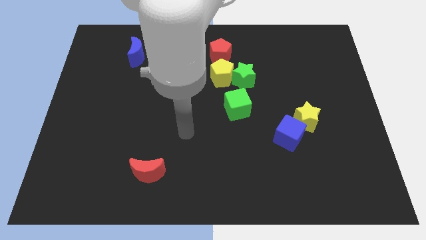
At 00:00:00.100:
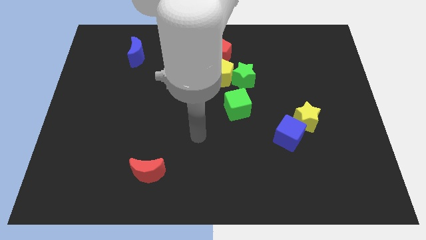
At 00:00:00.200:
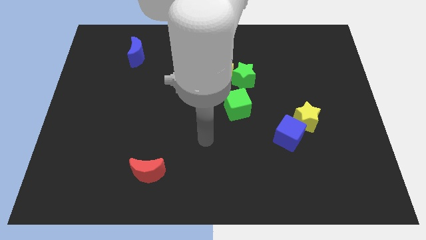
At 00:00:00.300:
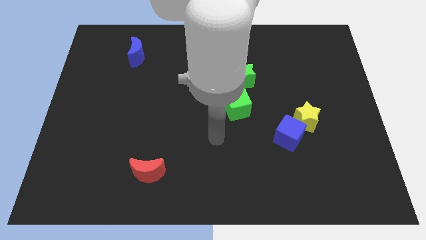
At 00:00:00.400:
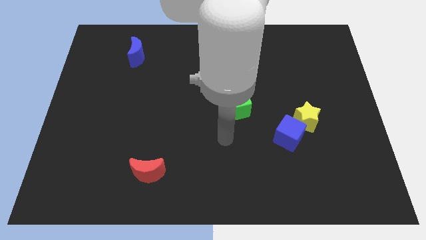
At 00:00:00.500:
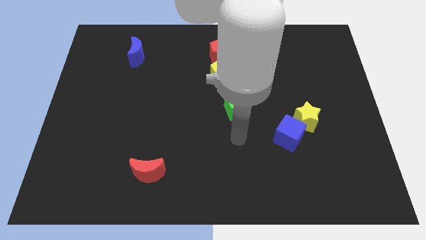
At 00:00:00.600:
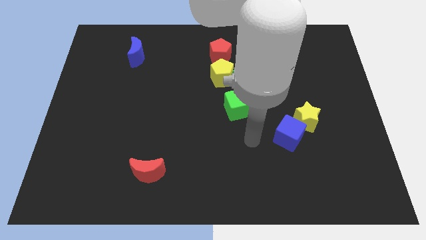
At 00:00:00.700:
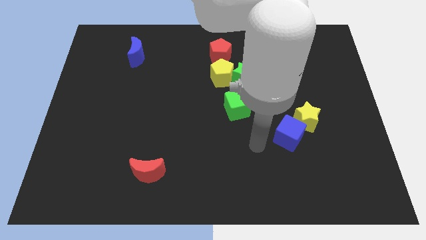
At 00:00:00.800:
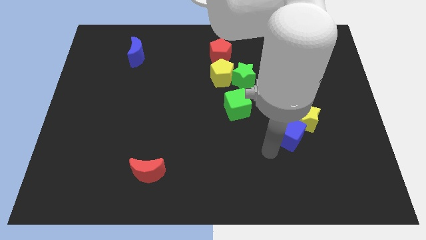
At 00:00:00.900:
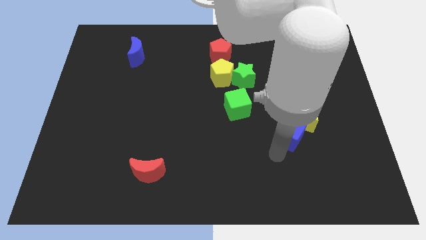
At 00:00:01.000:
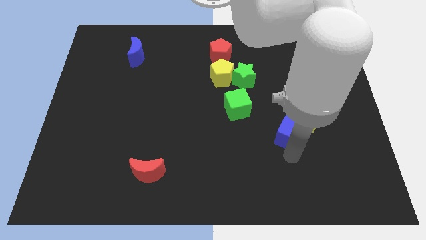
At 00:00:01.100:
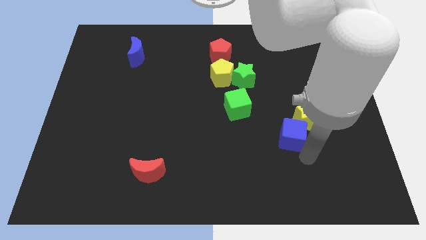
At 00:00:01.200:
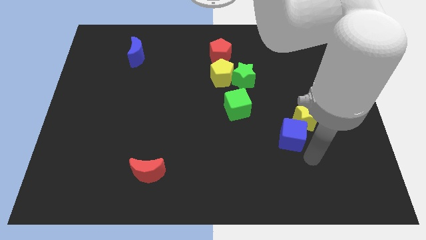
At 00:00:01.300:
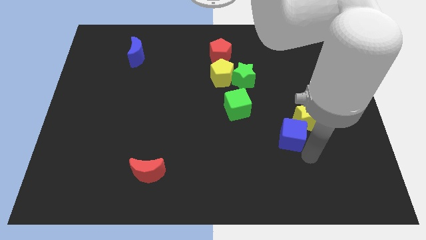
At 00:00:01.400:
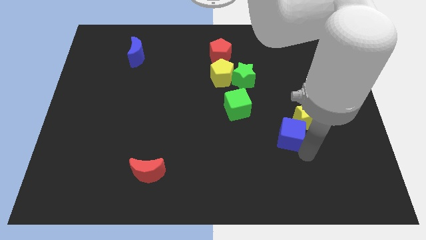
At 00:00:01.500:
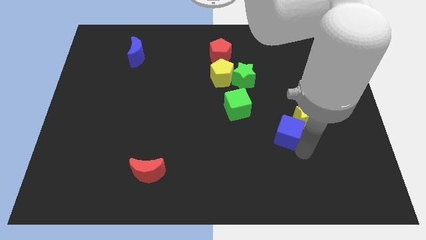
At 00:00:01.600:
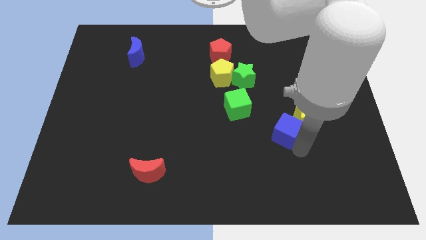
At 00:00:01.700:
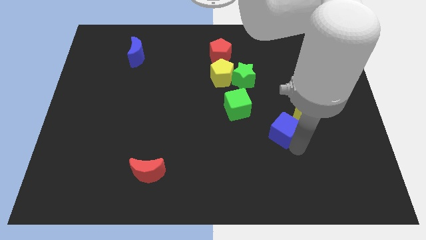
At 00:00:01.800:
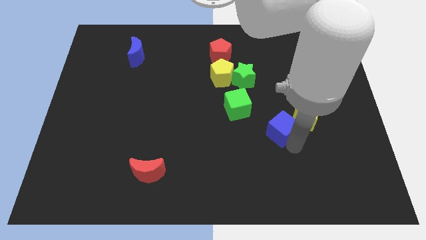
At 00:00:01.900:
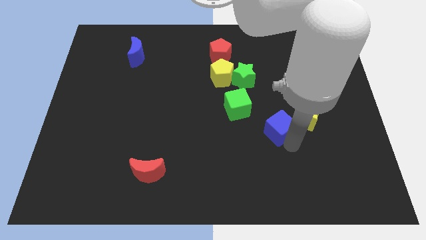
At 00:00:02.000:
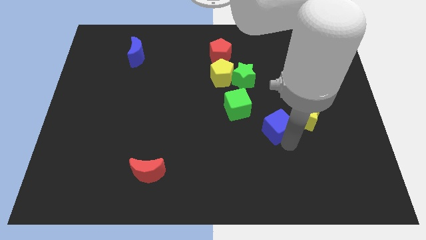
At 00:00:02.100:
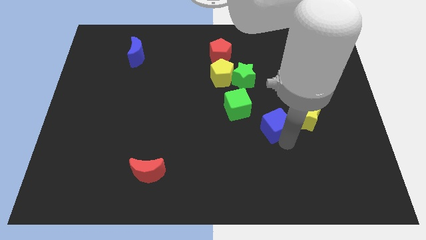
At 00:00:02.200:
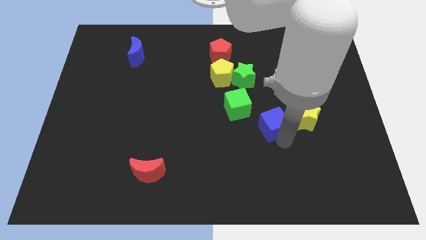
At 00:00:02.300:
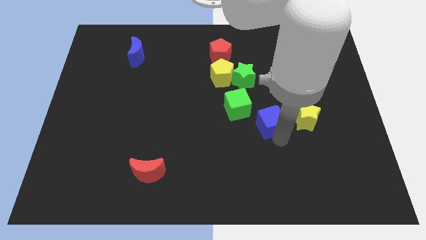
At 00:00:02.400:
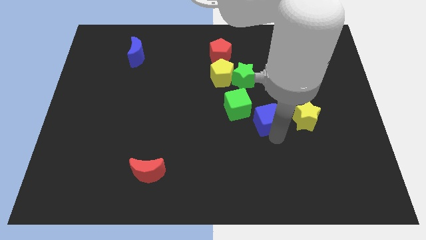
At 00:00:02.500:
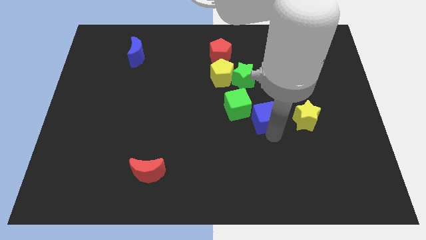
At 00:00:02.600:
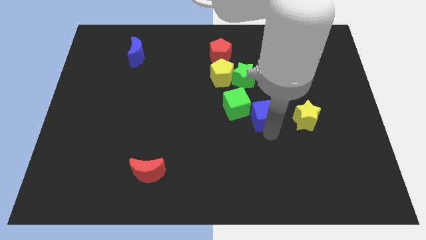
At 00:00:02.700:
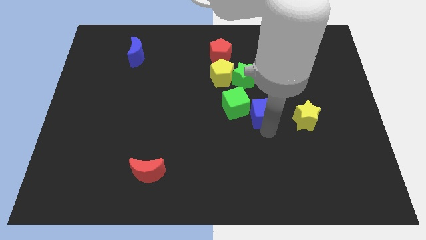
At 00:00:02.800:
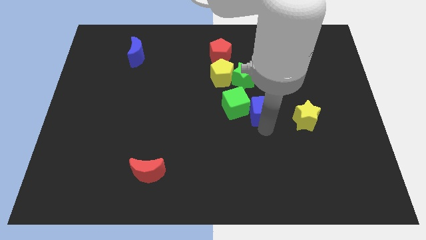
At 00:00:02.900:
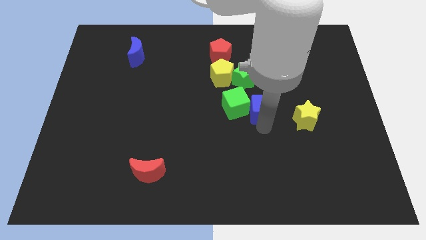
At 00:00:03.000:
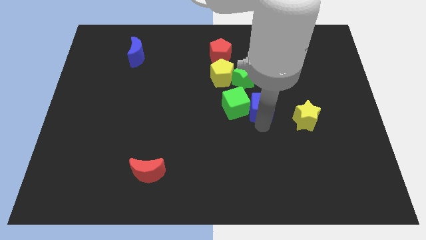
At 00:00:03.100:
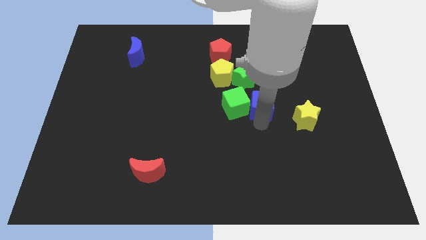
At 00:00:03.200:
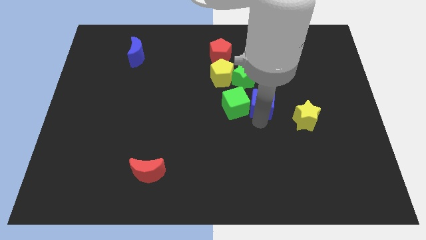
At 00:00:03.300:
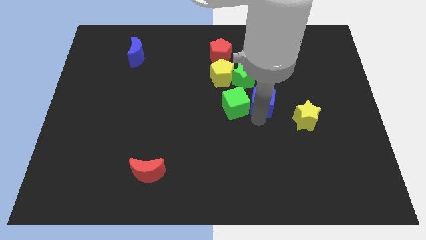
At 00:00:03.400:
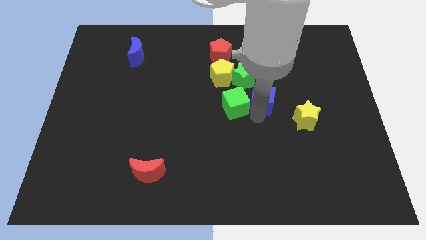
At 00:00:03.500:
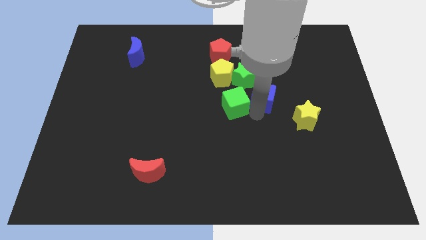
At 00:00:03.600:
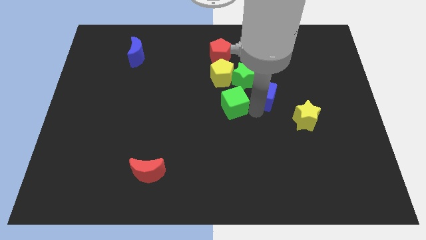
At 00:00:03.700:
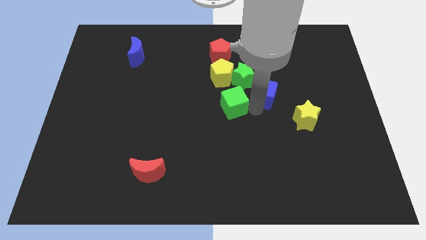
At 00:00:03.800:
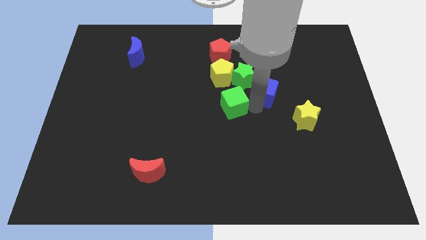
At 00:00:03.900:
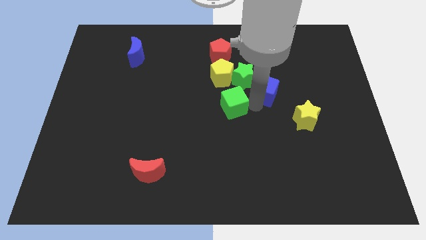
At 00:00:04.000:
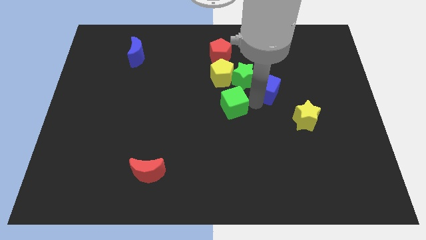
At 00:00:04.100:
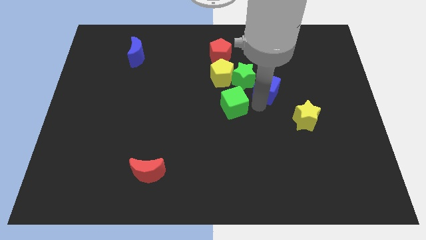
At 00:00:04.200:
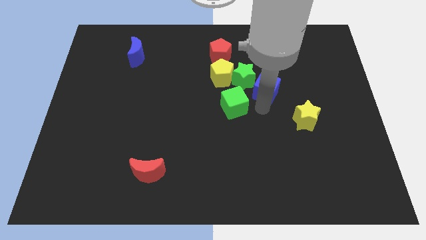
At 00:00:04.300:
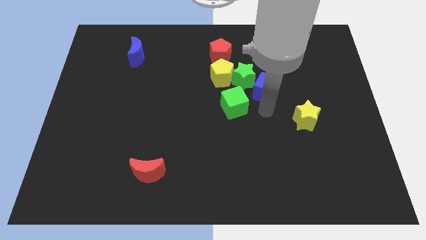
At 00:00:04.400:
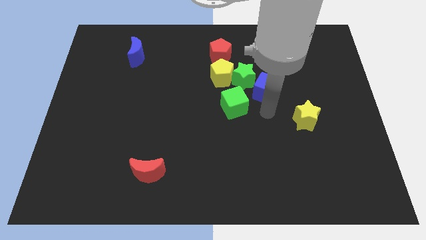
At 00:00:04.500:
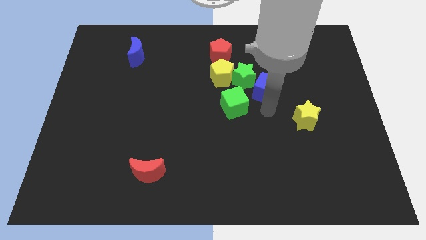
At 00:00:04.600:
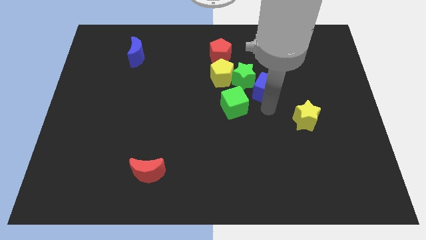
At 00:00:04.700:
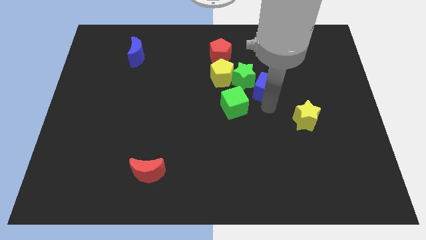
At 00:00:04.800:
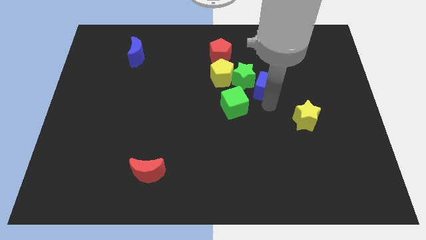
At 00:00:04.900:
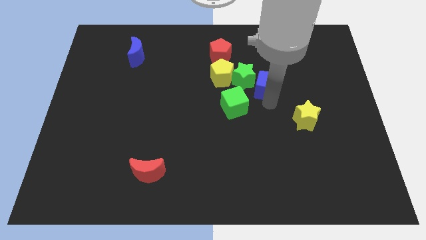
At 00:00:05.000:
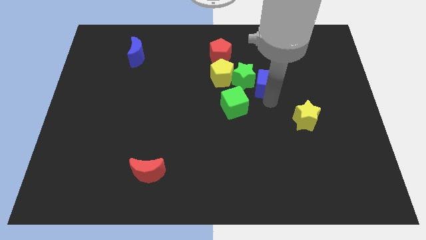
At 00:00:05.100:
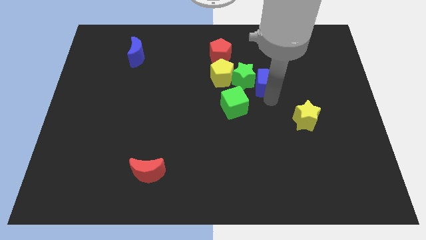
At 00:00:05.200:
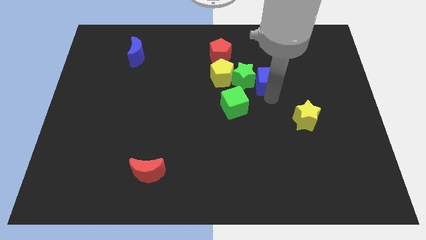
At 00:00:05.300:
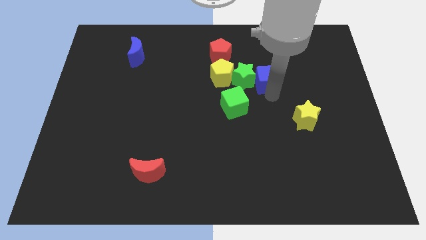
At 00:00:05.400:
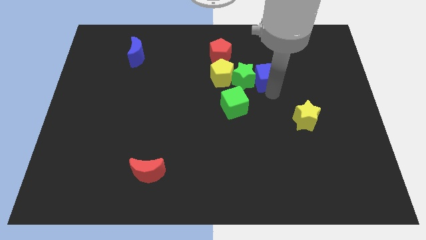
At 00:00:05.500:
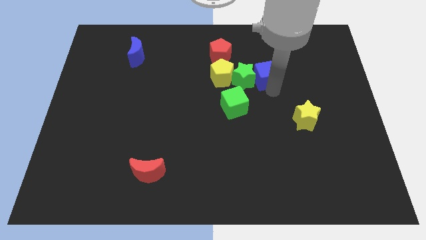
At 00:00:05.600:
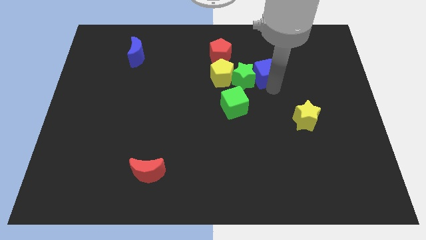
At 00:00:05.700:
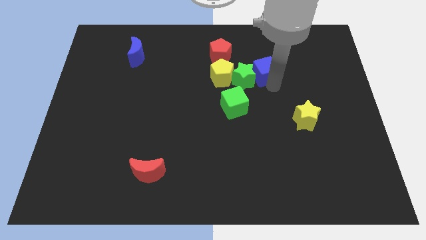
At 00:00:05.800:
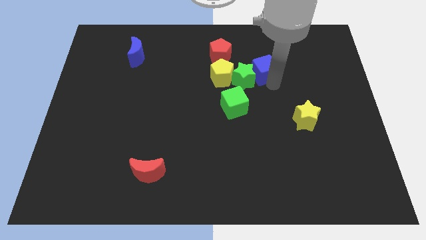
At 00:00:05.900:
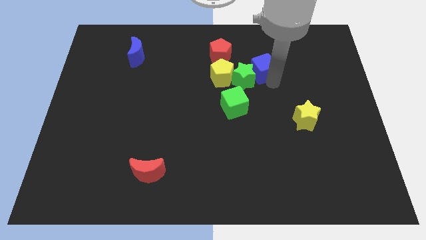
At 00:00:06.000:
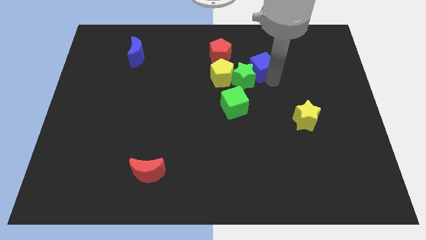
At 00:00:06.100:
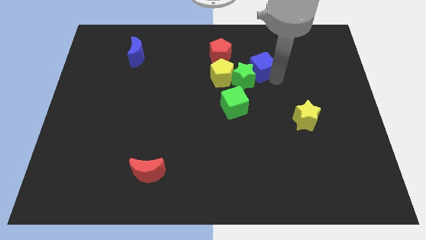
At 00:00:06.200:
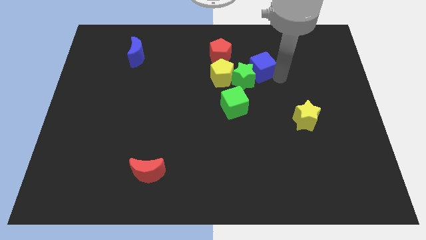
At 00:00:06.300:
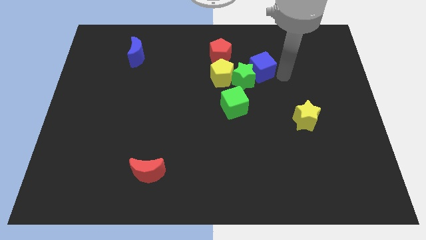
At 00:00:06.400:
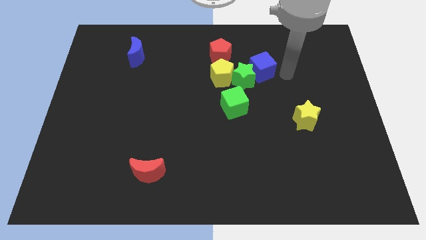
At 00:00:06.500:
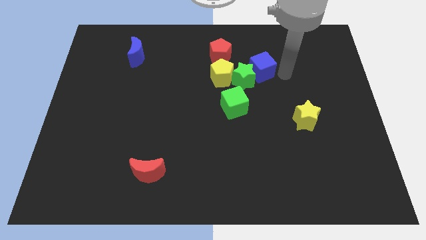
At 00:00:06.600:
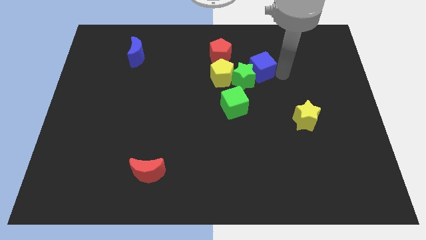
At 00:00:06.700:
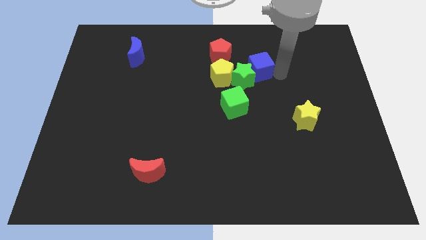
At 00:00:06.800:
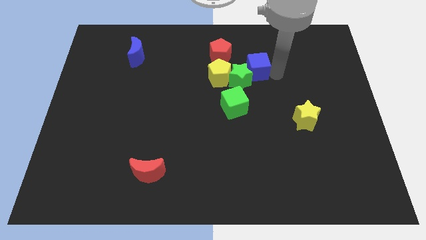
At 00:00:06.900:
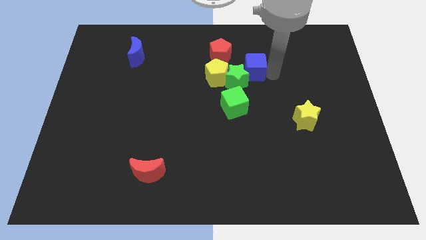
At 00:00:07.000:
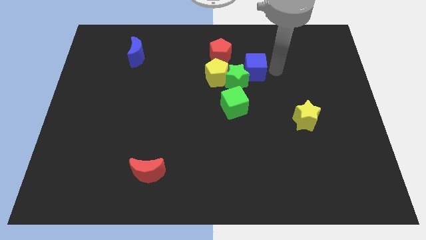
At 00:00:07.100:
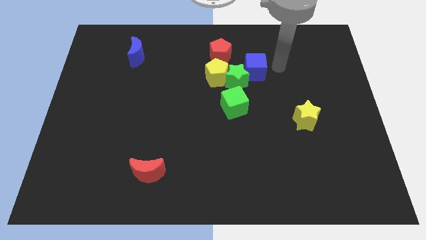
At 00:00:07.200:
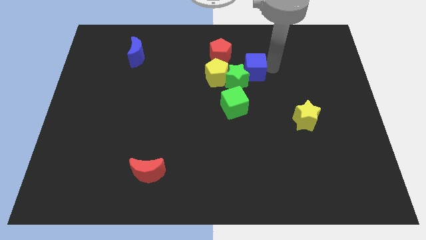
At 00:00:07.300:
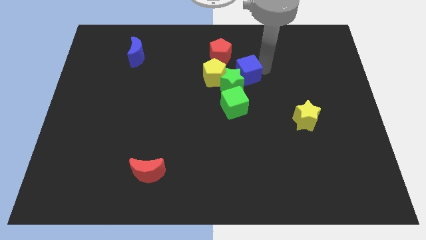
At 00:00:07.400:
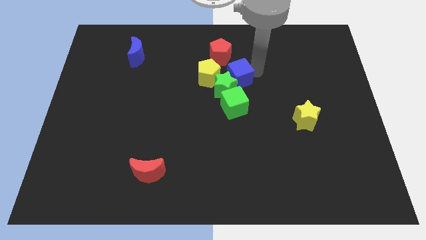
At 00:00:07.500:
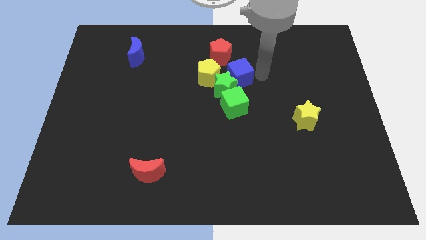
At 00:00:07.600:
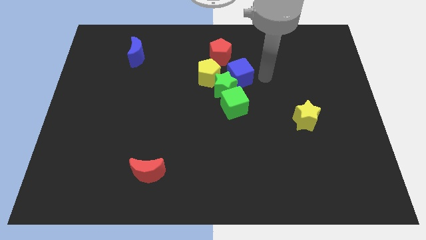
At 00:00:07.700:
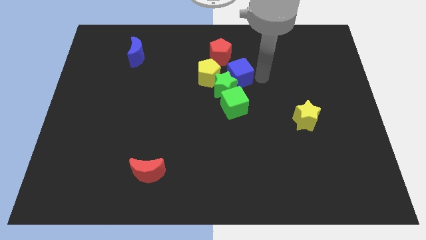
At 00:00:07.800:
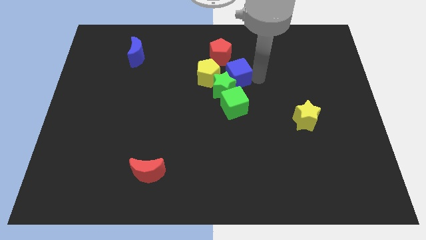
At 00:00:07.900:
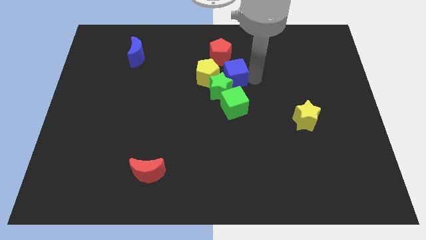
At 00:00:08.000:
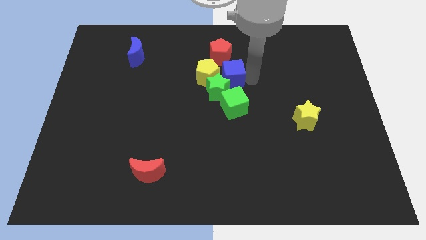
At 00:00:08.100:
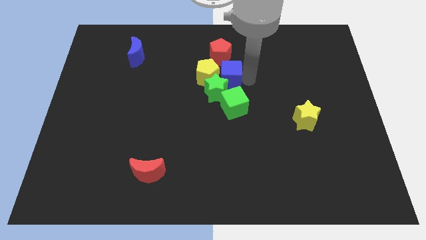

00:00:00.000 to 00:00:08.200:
slide the blue cube close to the yellow pentagon
